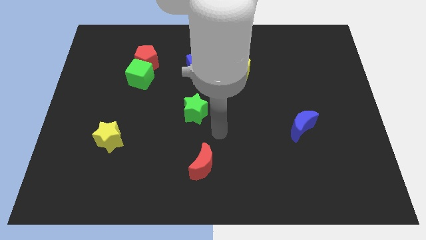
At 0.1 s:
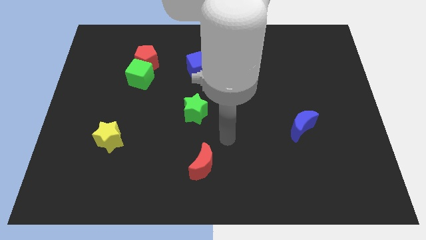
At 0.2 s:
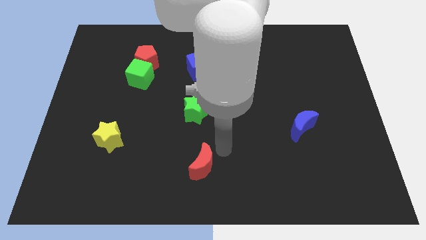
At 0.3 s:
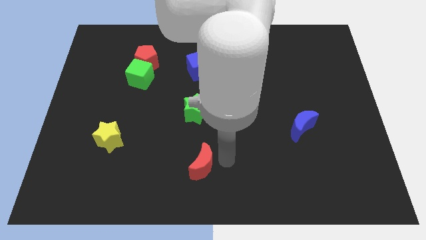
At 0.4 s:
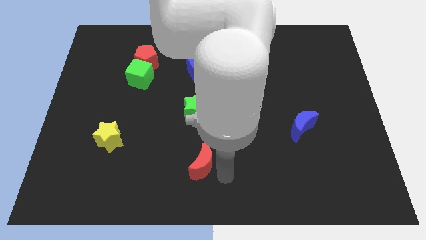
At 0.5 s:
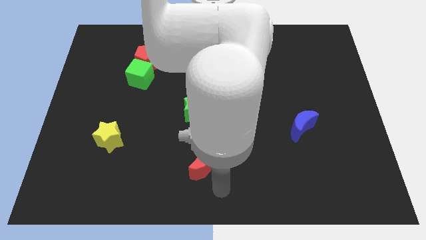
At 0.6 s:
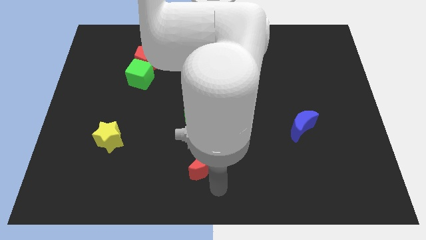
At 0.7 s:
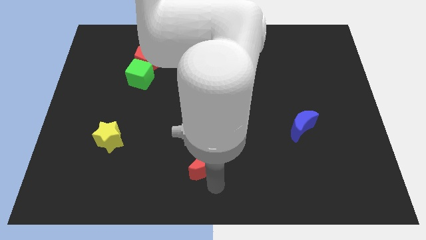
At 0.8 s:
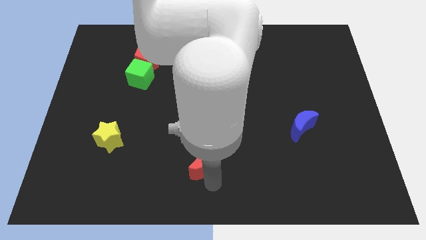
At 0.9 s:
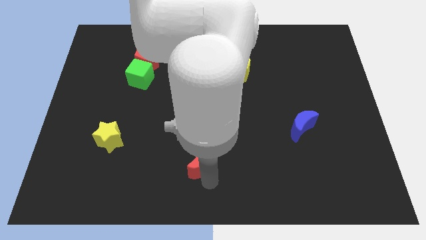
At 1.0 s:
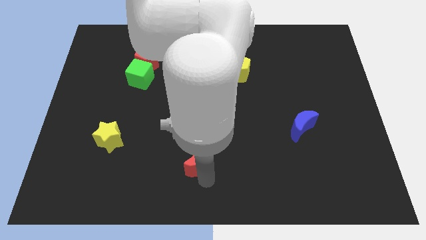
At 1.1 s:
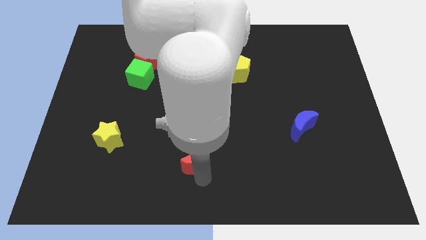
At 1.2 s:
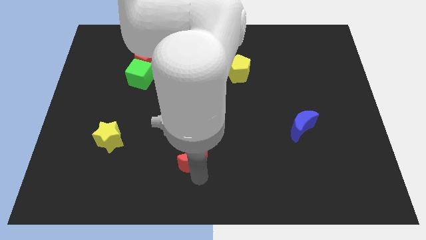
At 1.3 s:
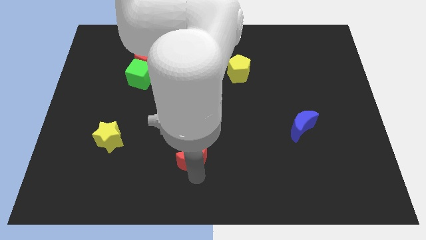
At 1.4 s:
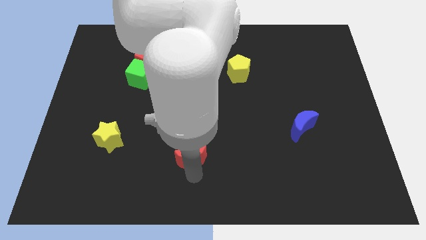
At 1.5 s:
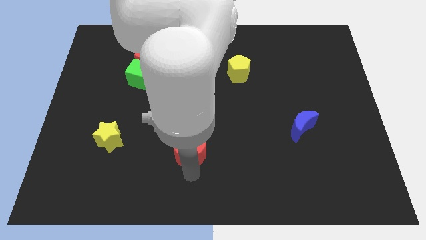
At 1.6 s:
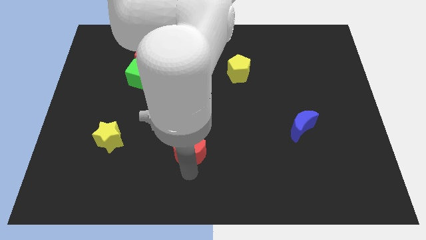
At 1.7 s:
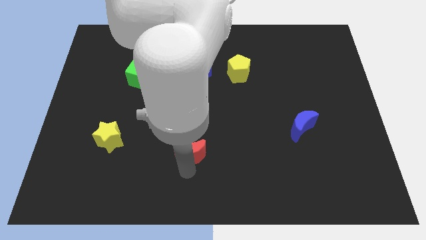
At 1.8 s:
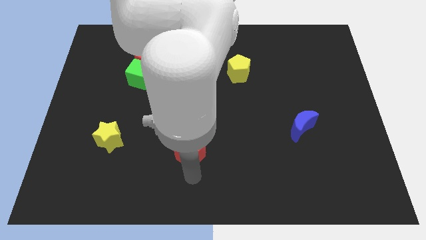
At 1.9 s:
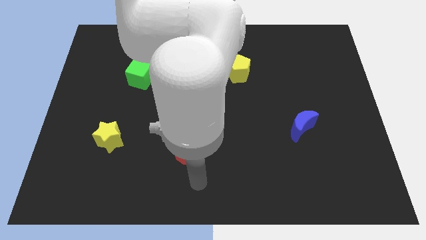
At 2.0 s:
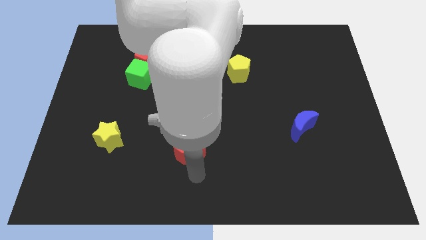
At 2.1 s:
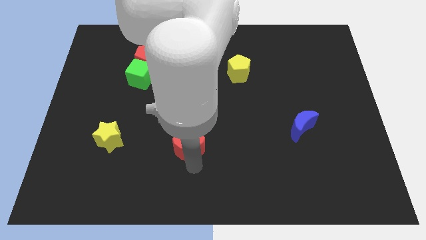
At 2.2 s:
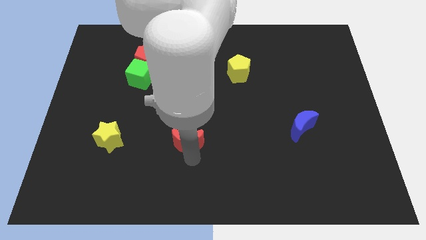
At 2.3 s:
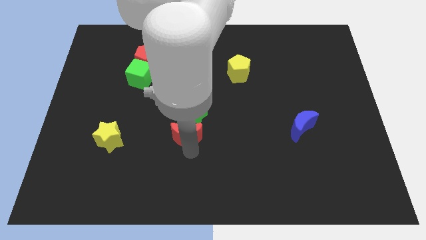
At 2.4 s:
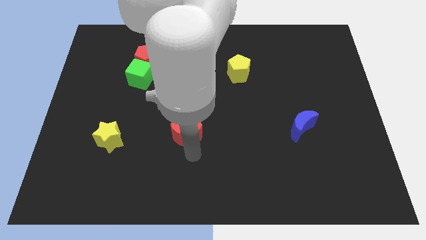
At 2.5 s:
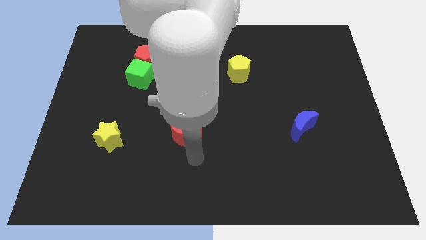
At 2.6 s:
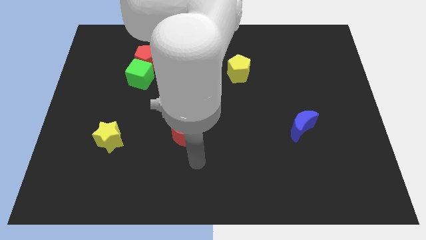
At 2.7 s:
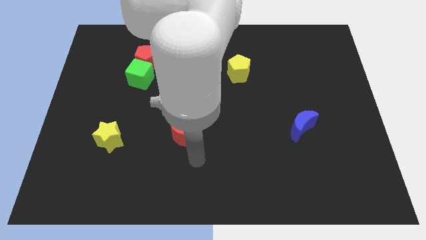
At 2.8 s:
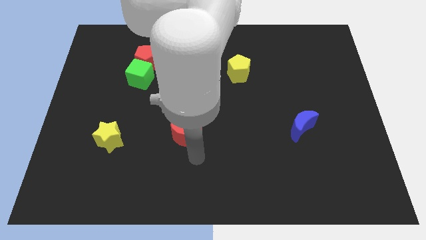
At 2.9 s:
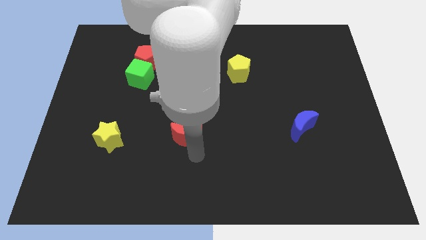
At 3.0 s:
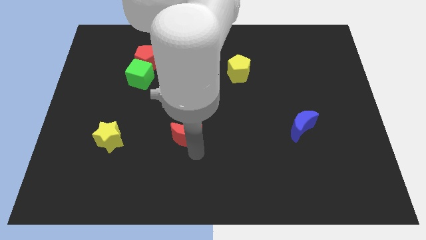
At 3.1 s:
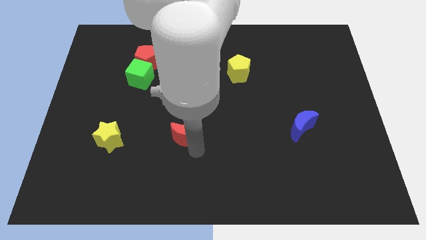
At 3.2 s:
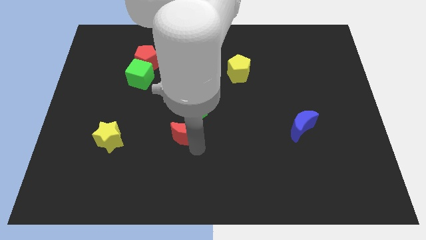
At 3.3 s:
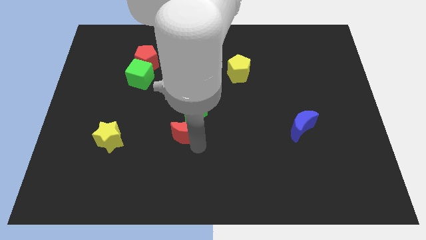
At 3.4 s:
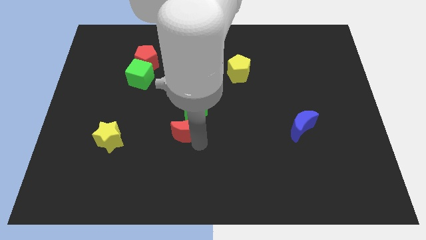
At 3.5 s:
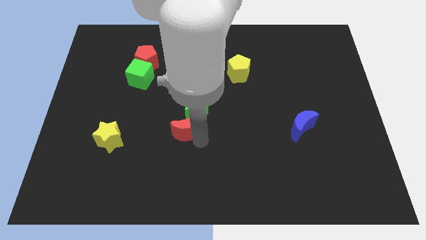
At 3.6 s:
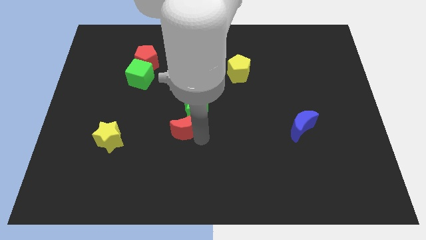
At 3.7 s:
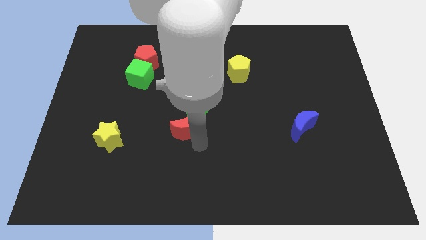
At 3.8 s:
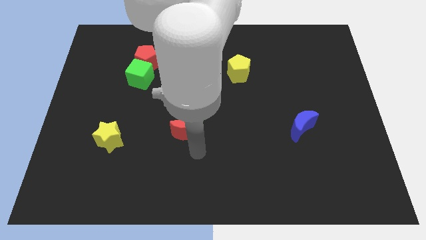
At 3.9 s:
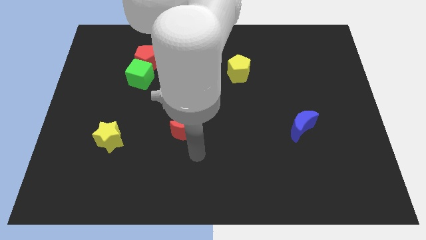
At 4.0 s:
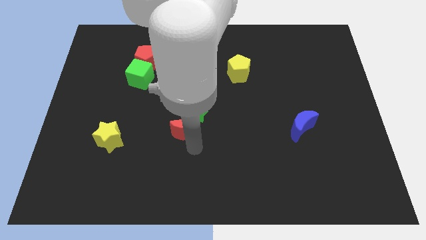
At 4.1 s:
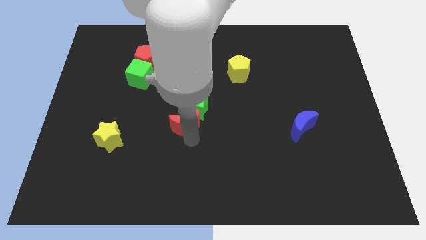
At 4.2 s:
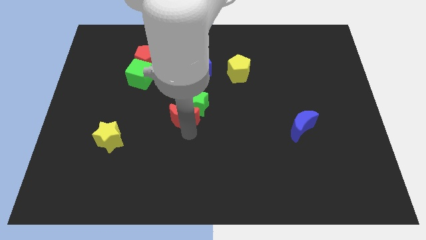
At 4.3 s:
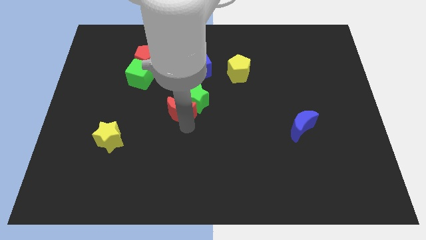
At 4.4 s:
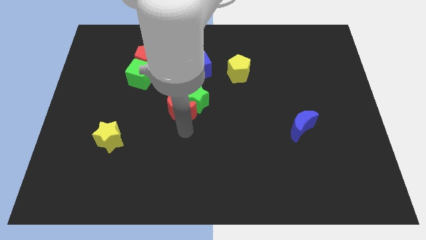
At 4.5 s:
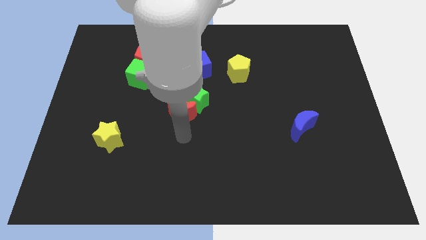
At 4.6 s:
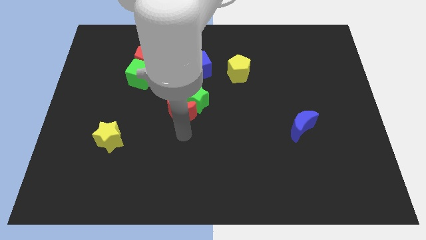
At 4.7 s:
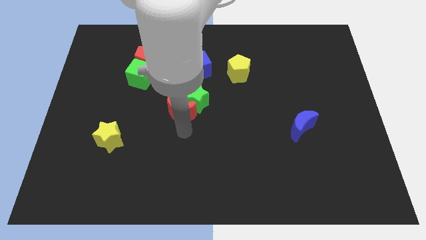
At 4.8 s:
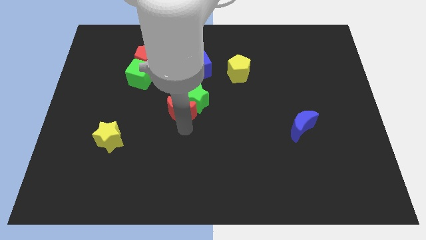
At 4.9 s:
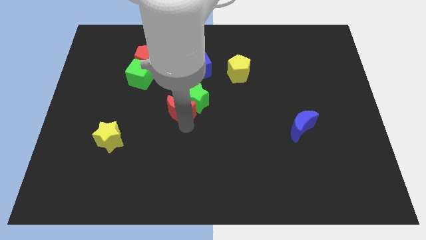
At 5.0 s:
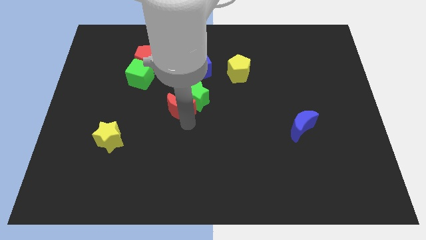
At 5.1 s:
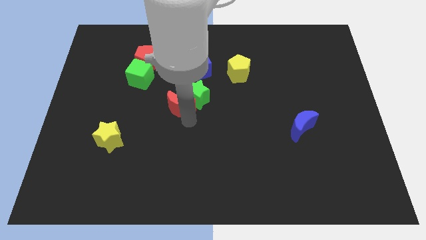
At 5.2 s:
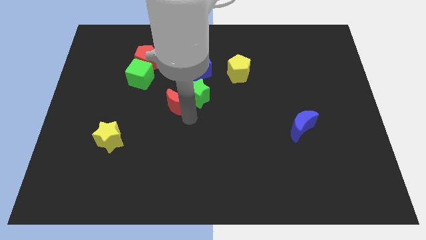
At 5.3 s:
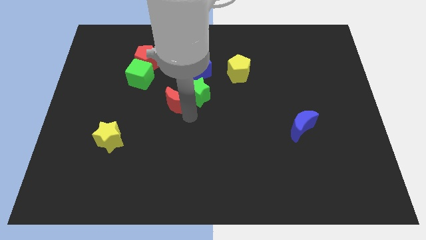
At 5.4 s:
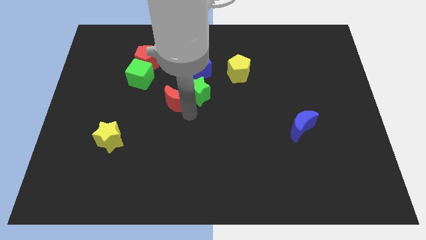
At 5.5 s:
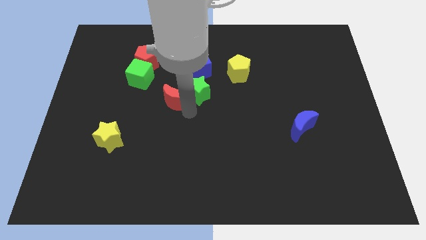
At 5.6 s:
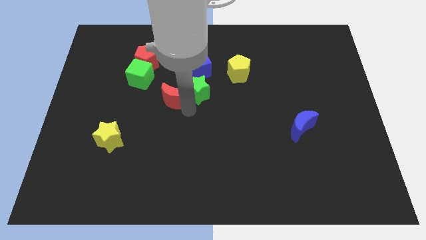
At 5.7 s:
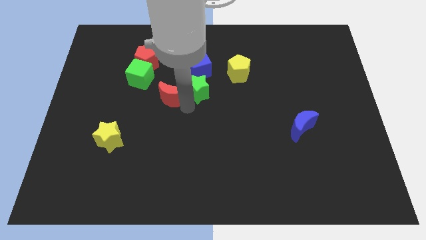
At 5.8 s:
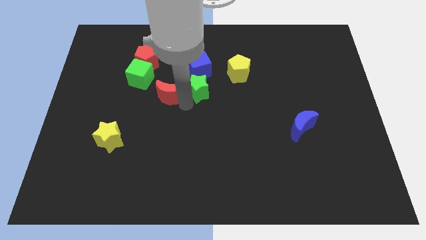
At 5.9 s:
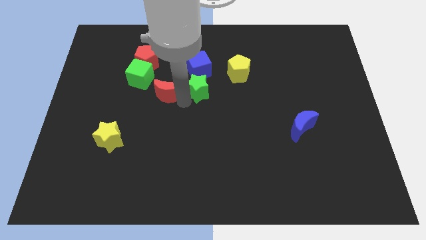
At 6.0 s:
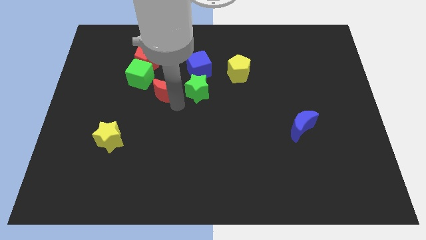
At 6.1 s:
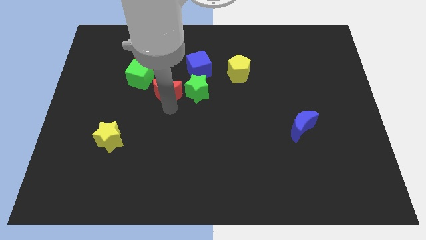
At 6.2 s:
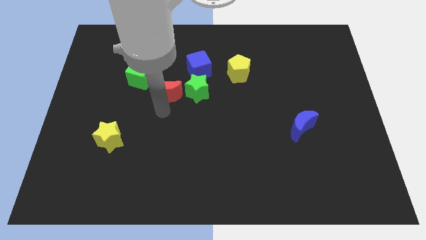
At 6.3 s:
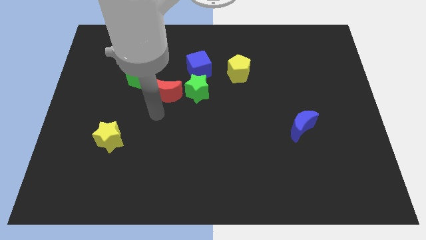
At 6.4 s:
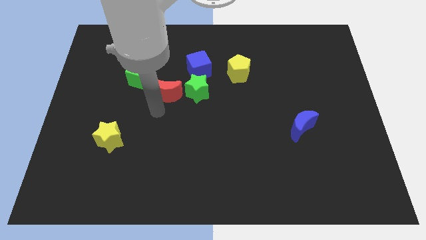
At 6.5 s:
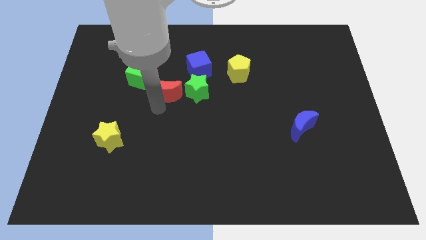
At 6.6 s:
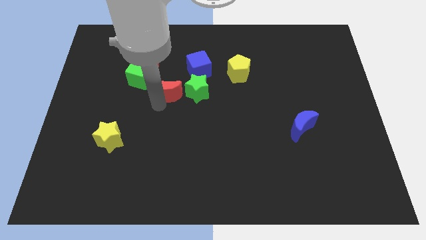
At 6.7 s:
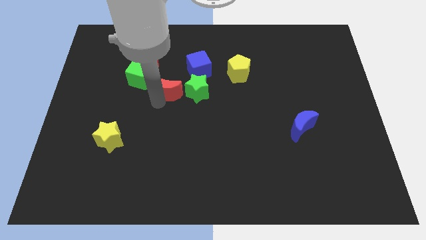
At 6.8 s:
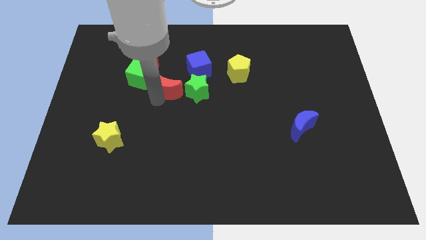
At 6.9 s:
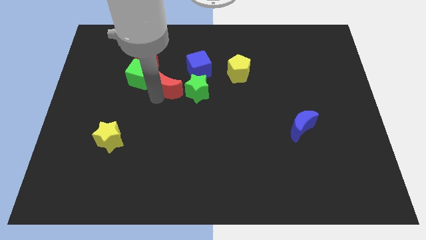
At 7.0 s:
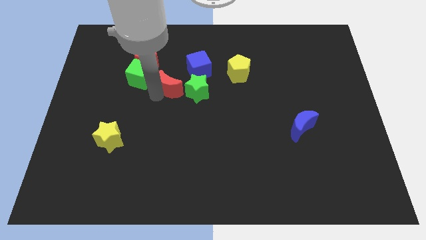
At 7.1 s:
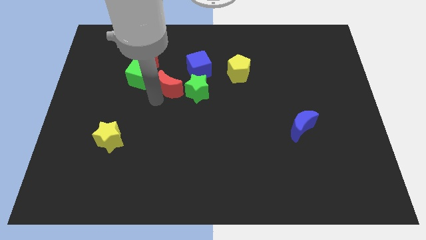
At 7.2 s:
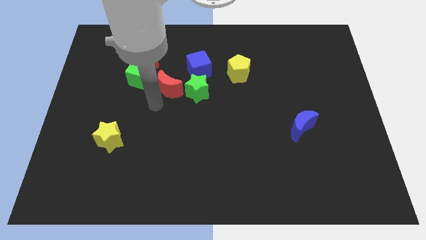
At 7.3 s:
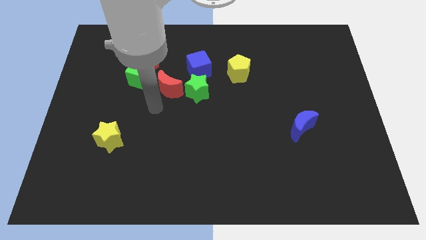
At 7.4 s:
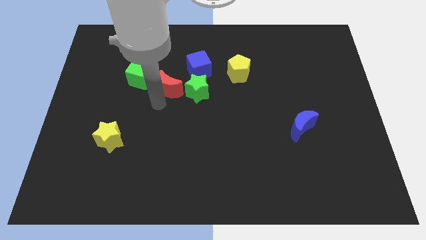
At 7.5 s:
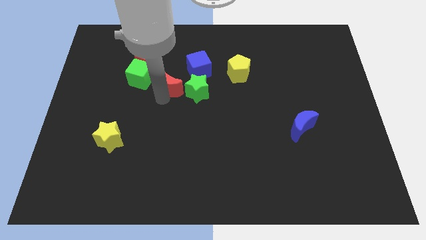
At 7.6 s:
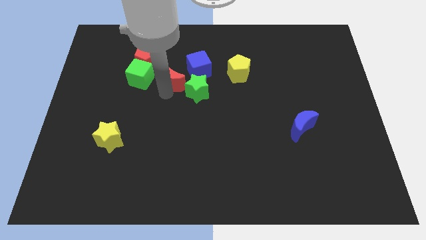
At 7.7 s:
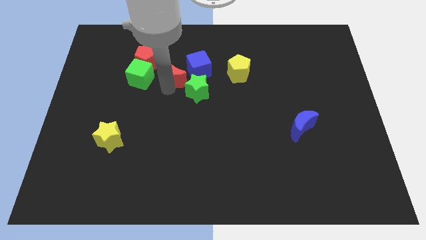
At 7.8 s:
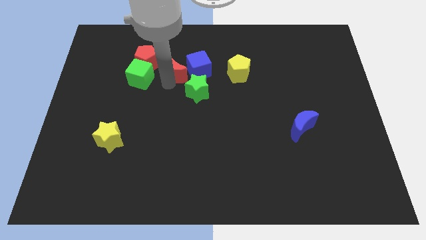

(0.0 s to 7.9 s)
move the red moon left of the yellow pentagon
